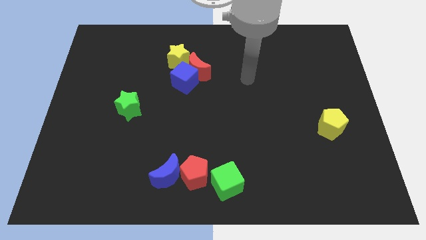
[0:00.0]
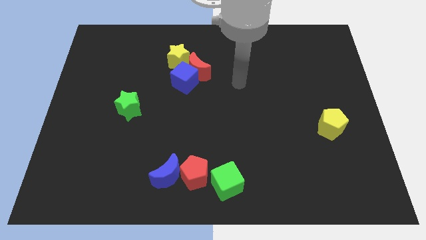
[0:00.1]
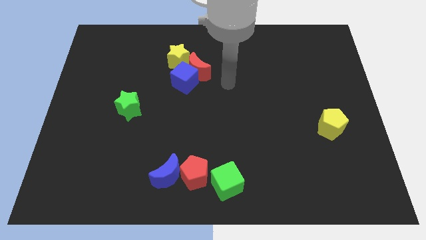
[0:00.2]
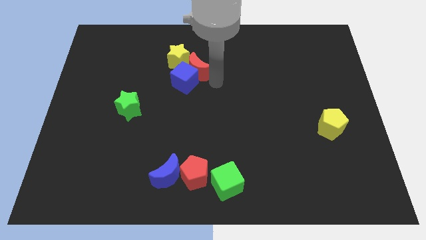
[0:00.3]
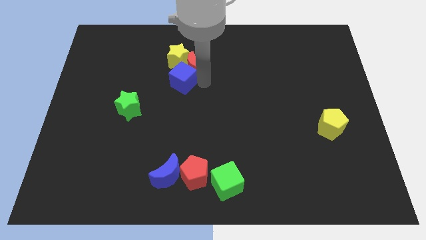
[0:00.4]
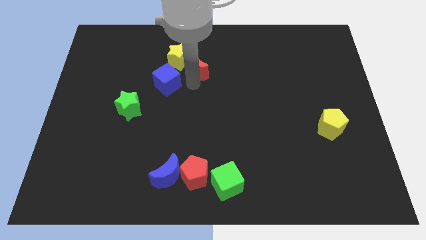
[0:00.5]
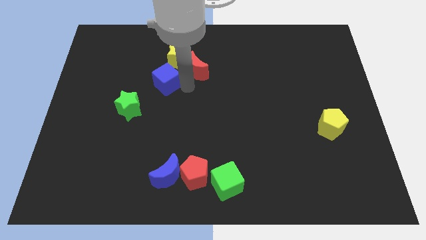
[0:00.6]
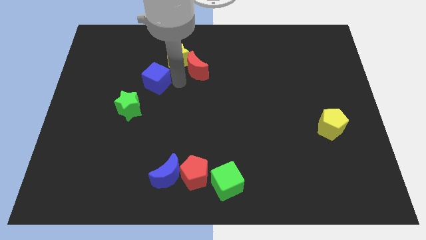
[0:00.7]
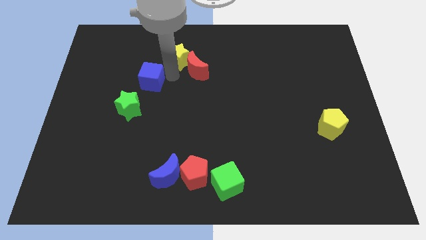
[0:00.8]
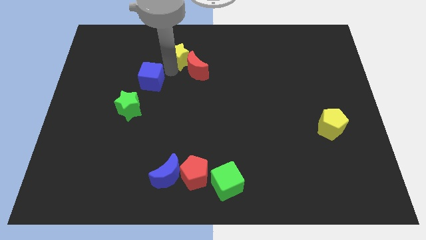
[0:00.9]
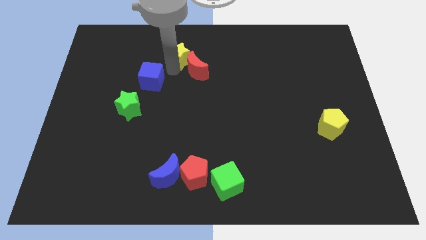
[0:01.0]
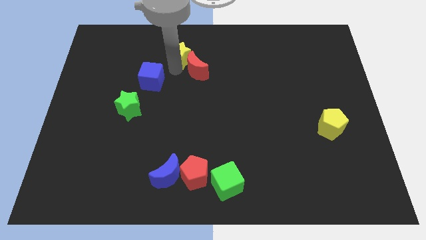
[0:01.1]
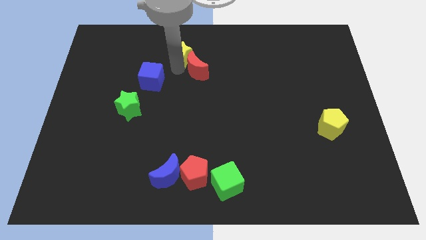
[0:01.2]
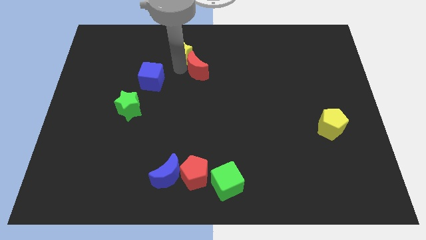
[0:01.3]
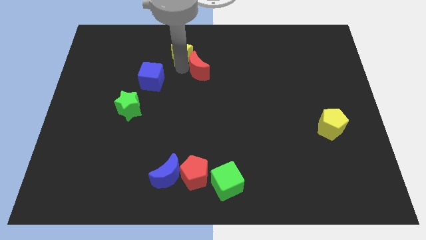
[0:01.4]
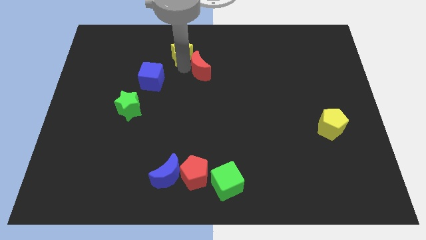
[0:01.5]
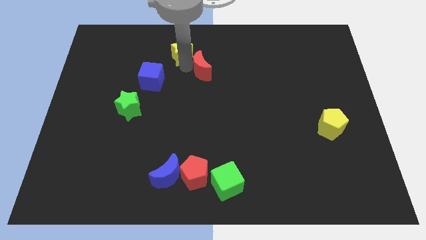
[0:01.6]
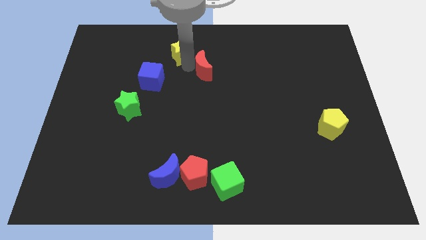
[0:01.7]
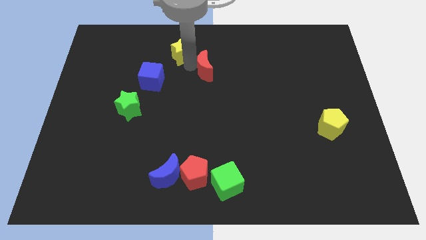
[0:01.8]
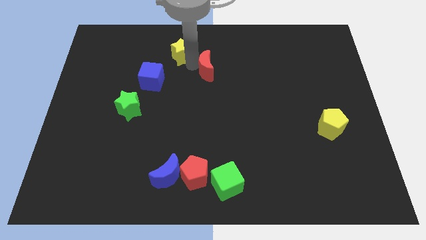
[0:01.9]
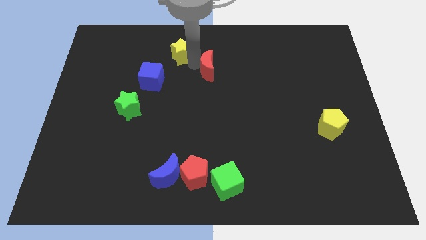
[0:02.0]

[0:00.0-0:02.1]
separate the red moon from the blue cube and yellow star

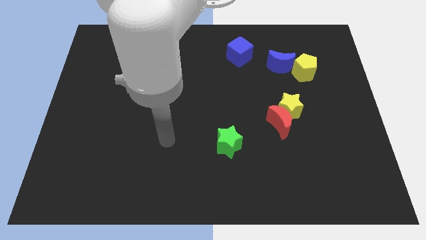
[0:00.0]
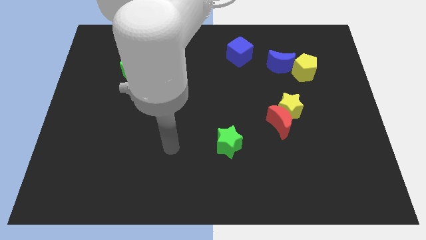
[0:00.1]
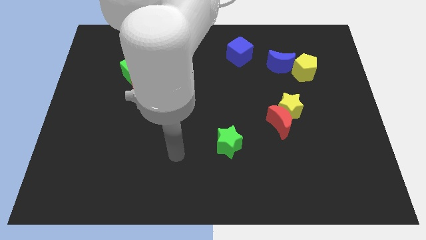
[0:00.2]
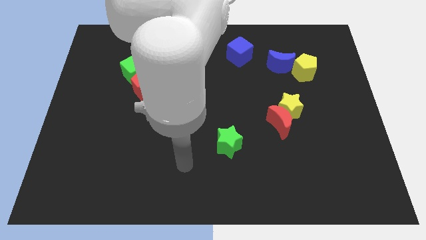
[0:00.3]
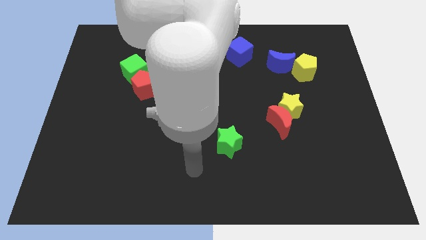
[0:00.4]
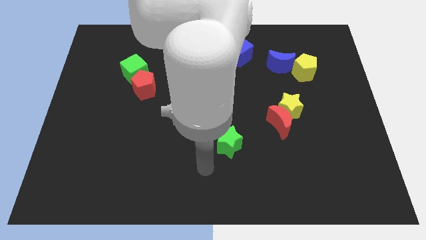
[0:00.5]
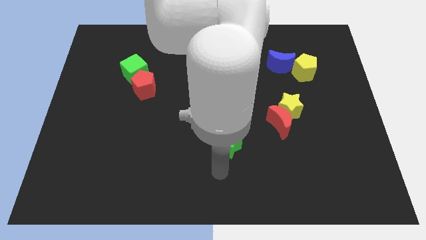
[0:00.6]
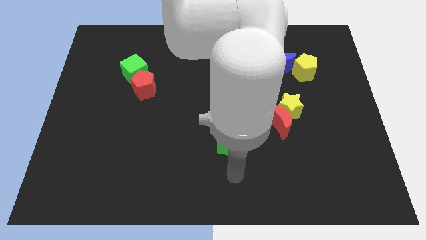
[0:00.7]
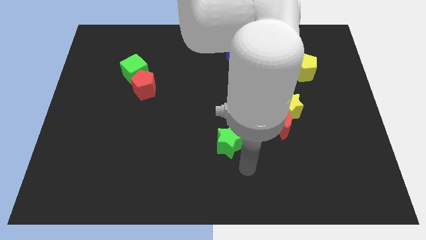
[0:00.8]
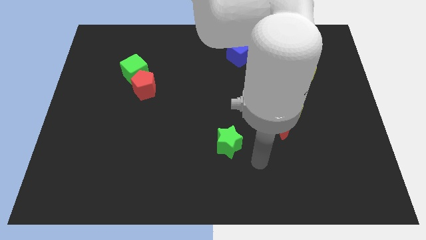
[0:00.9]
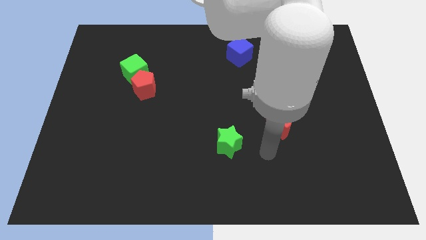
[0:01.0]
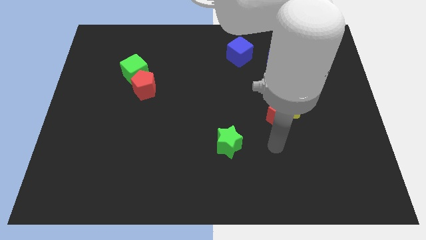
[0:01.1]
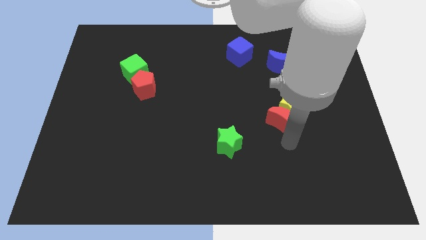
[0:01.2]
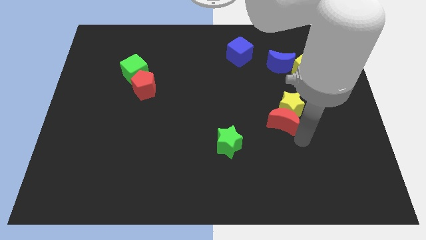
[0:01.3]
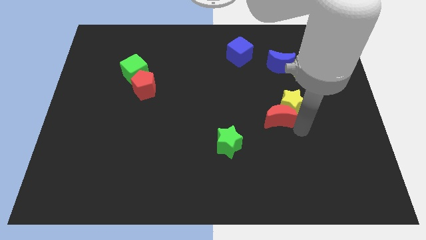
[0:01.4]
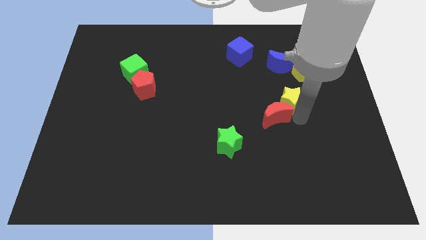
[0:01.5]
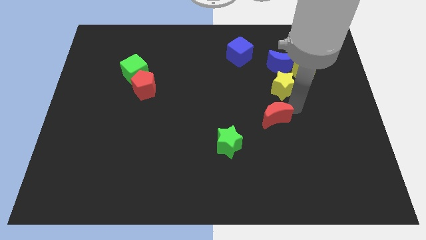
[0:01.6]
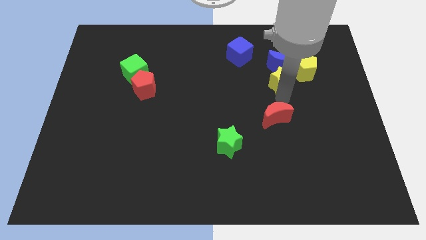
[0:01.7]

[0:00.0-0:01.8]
move the red moon away from the yellow star

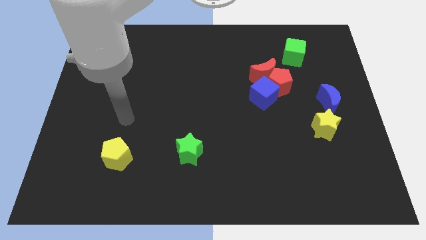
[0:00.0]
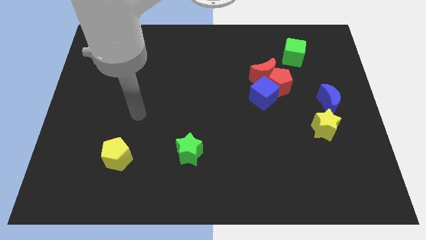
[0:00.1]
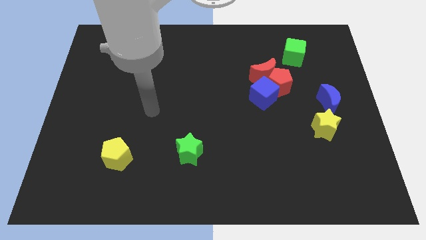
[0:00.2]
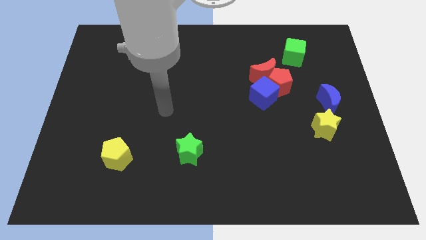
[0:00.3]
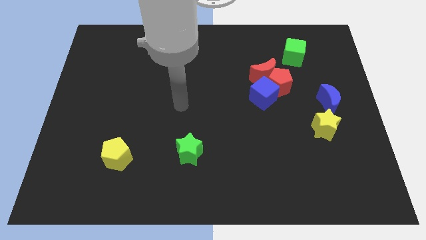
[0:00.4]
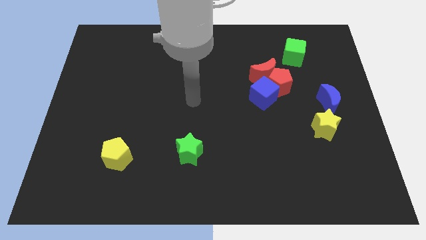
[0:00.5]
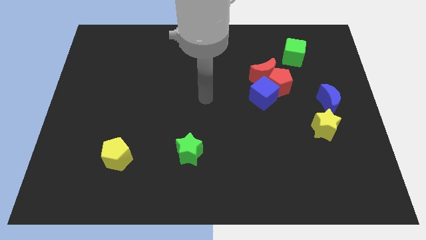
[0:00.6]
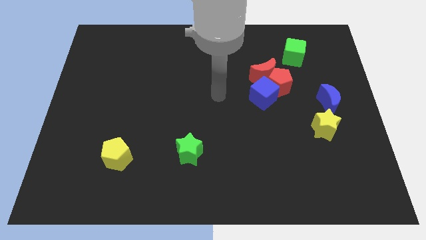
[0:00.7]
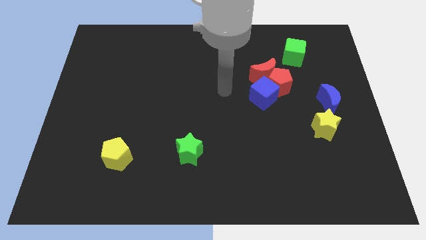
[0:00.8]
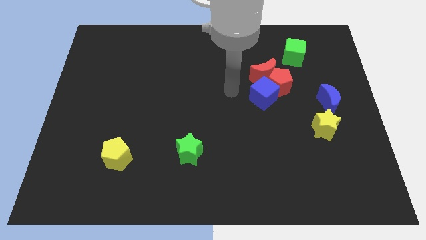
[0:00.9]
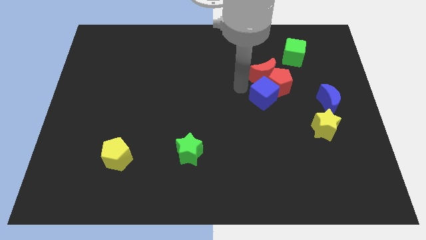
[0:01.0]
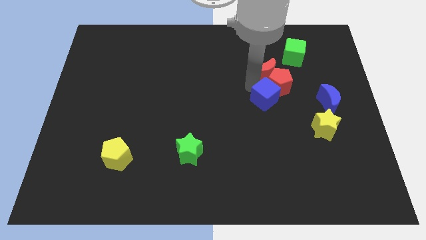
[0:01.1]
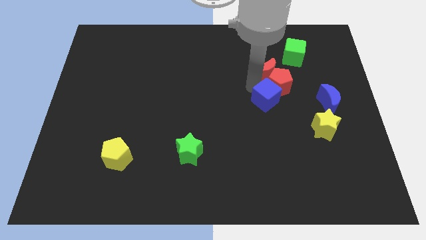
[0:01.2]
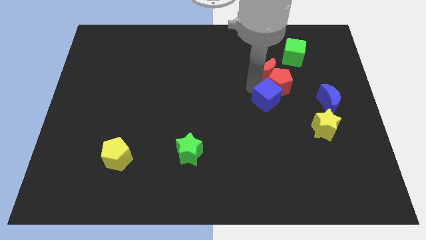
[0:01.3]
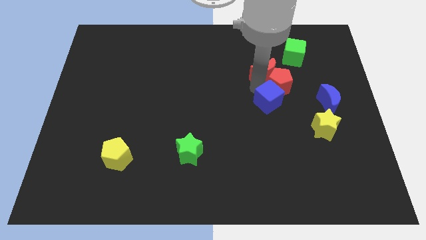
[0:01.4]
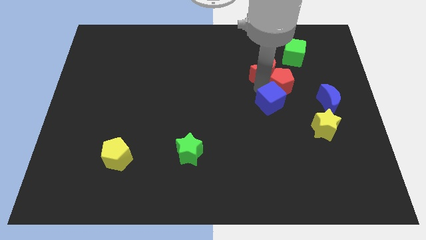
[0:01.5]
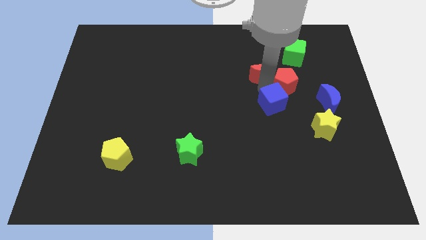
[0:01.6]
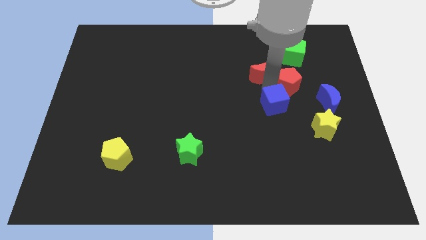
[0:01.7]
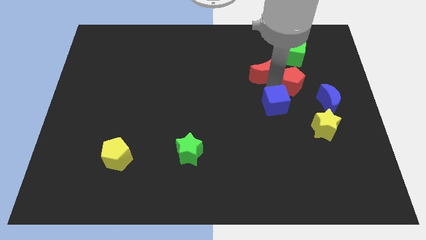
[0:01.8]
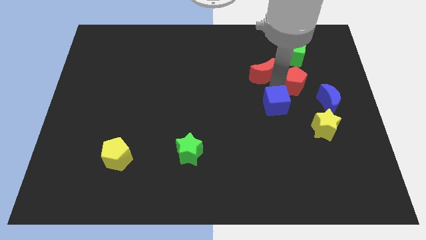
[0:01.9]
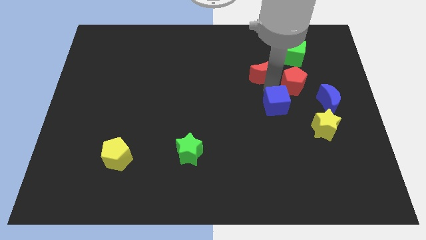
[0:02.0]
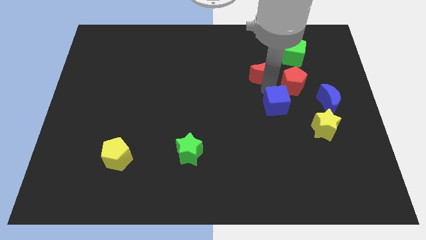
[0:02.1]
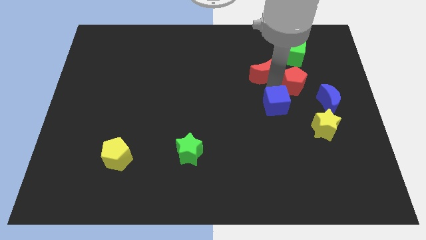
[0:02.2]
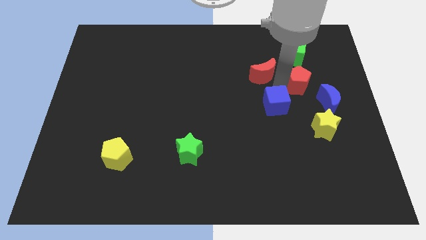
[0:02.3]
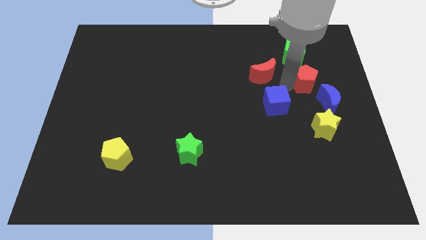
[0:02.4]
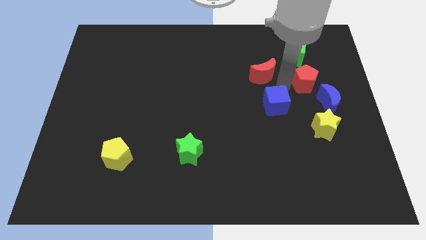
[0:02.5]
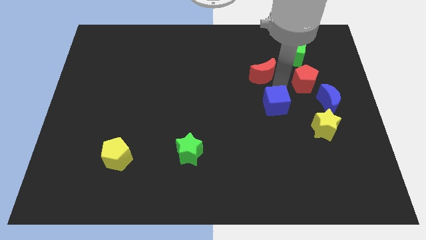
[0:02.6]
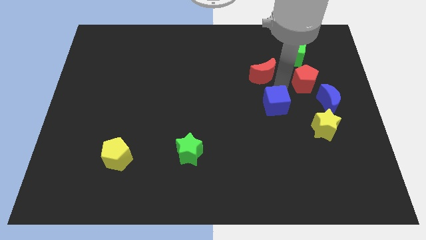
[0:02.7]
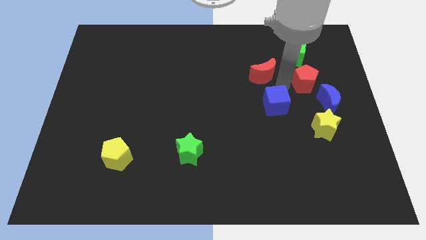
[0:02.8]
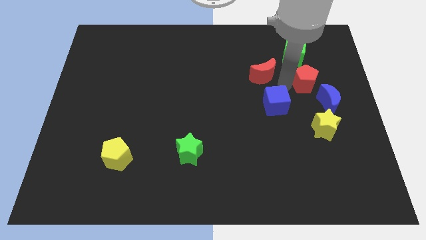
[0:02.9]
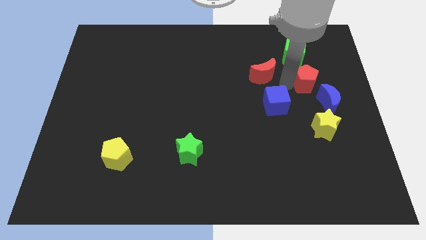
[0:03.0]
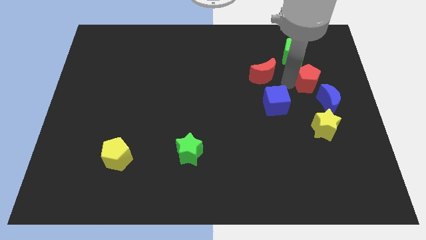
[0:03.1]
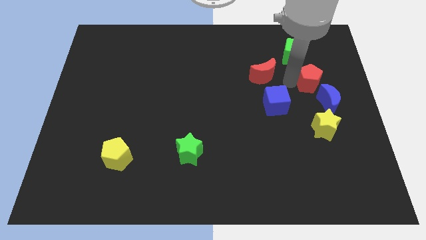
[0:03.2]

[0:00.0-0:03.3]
separate the red pentagon from the red moon and blue cube

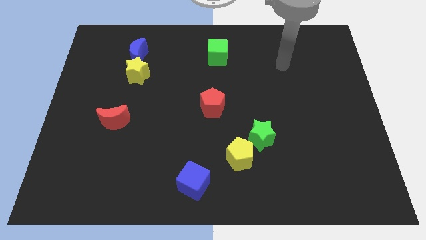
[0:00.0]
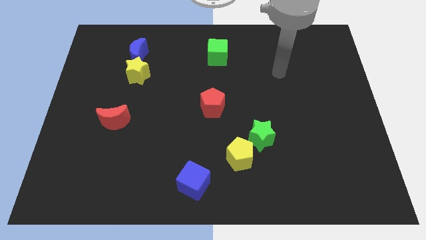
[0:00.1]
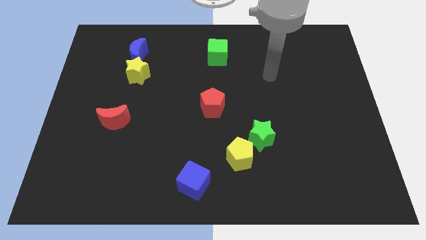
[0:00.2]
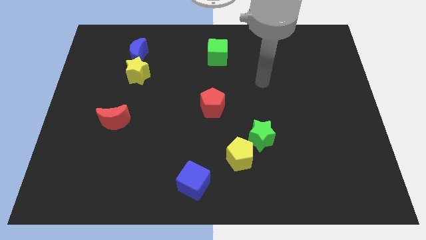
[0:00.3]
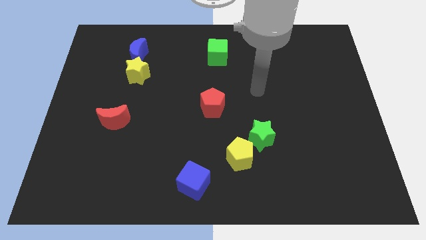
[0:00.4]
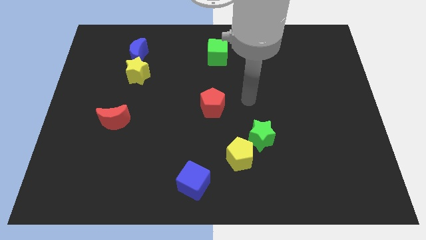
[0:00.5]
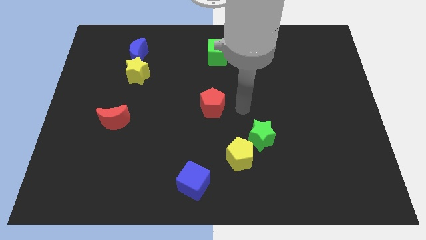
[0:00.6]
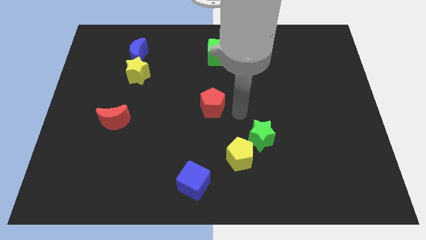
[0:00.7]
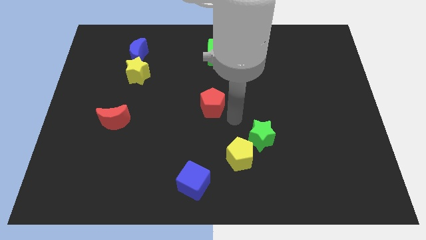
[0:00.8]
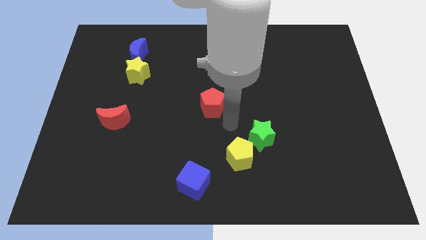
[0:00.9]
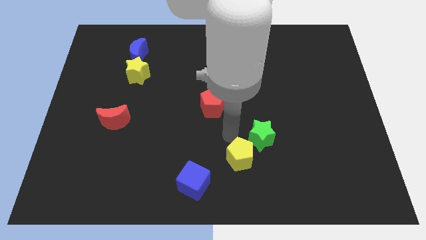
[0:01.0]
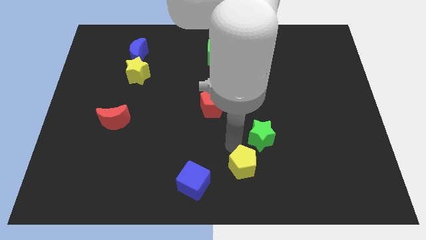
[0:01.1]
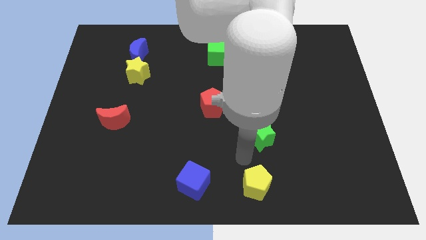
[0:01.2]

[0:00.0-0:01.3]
separate the green star from the yellow pentagon

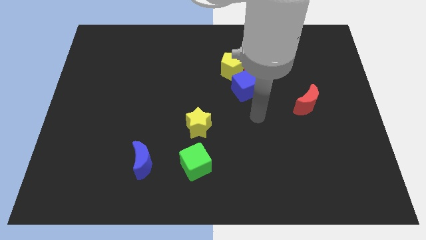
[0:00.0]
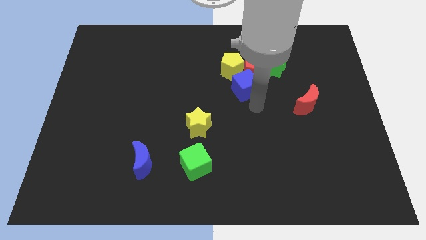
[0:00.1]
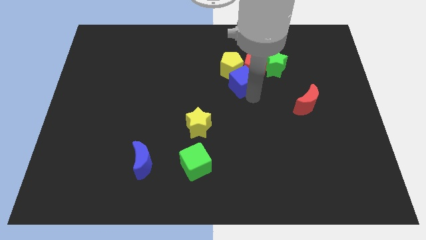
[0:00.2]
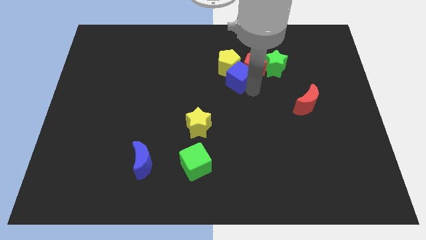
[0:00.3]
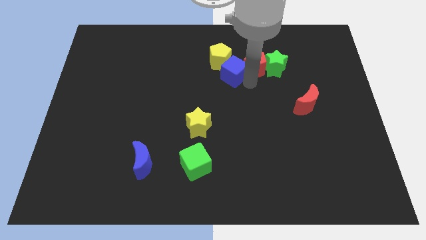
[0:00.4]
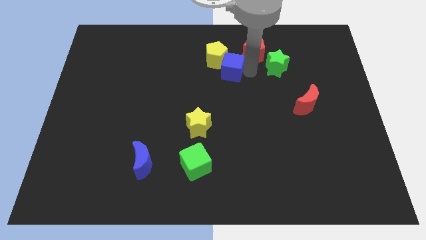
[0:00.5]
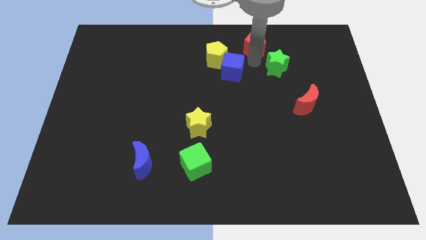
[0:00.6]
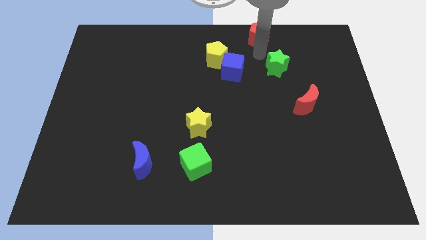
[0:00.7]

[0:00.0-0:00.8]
separate the green star from the red pentagon
